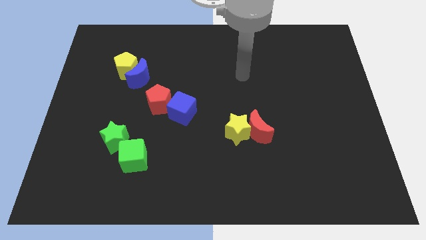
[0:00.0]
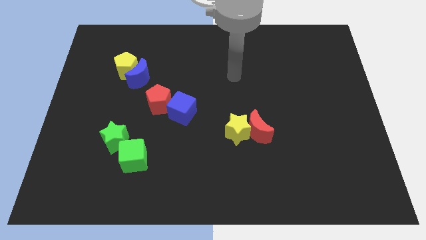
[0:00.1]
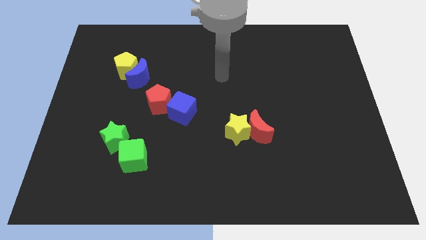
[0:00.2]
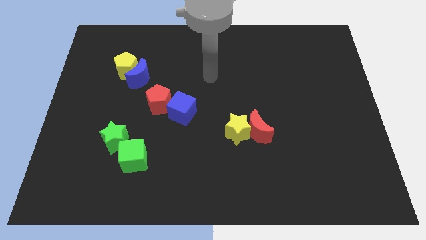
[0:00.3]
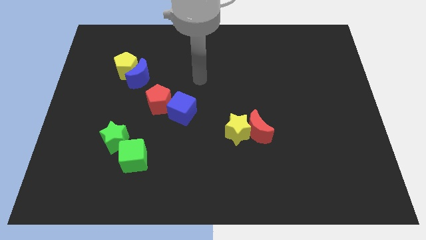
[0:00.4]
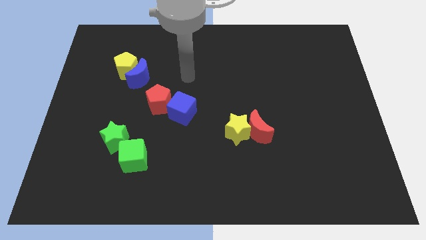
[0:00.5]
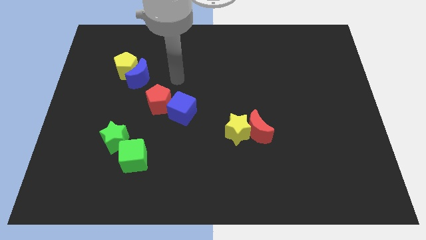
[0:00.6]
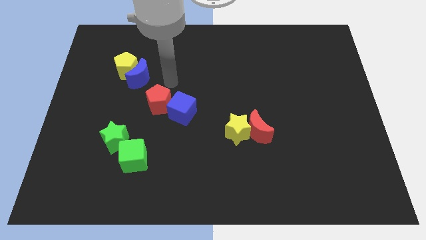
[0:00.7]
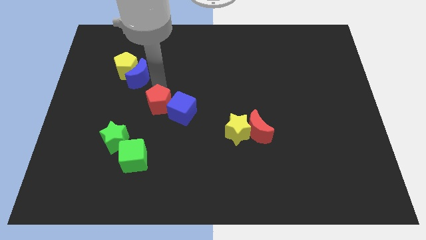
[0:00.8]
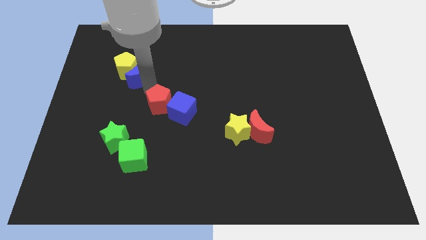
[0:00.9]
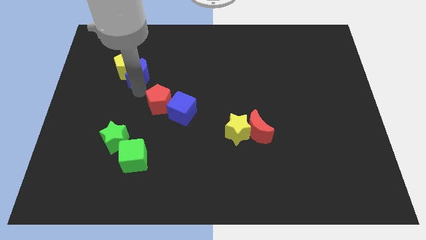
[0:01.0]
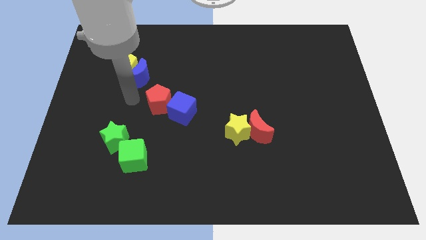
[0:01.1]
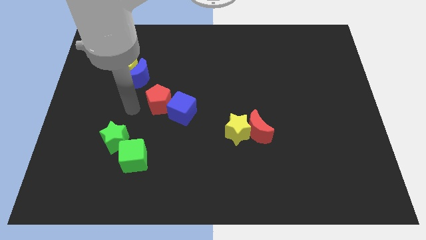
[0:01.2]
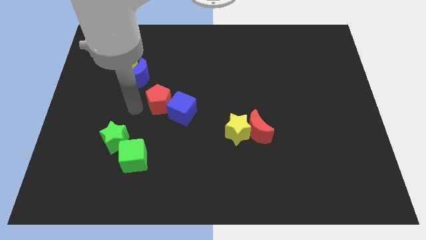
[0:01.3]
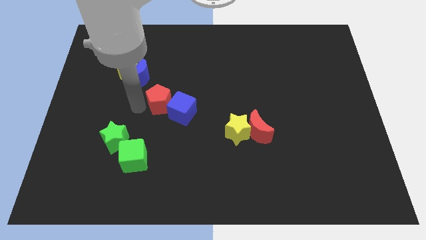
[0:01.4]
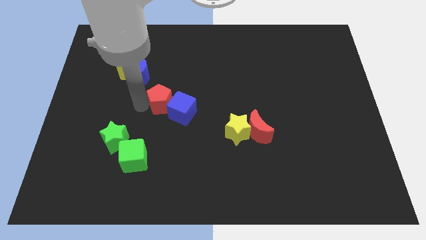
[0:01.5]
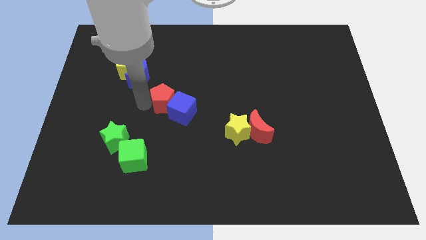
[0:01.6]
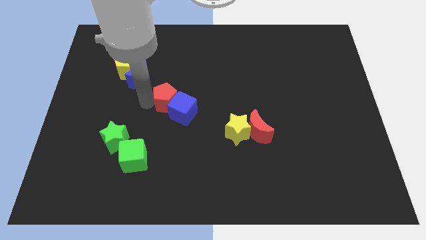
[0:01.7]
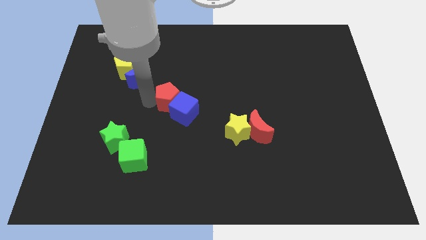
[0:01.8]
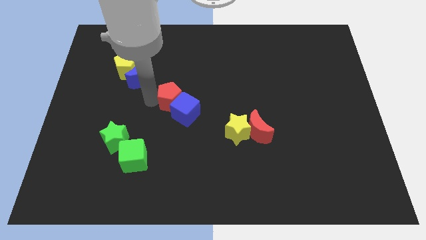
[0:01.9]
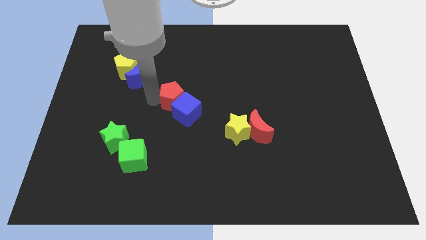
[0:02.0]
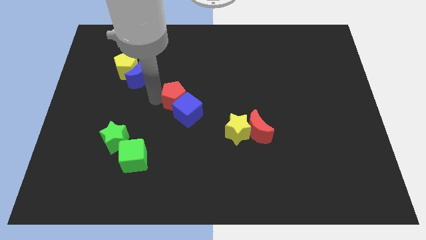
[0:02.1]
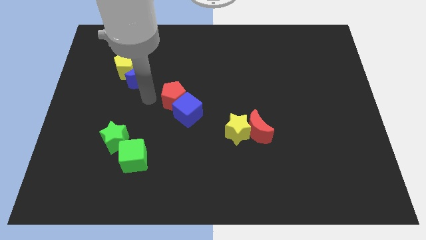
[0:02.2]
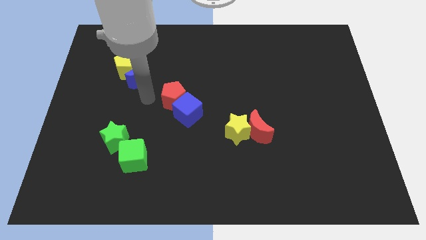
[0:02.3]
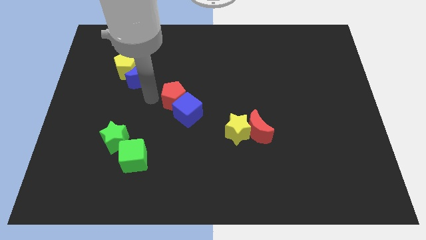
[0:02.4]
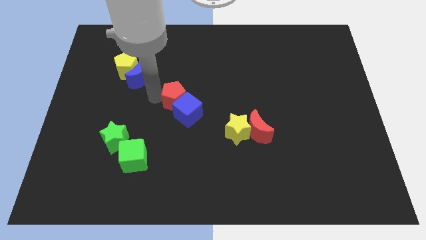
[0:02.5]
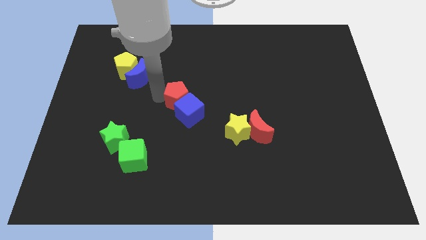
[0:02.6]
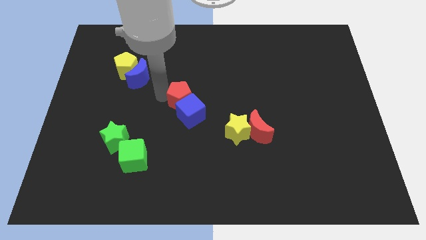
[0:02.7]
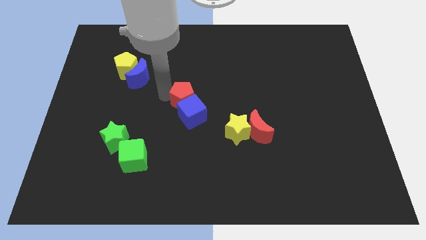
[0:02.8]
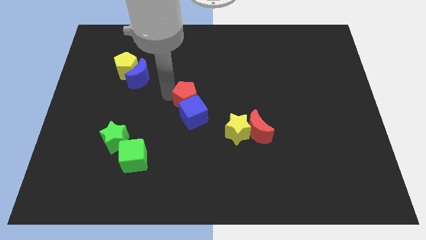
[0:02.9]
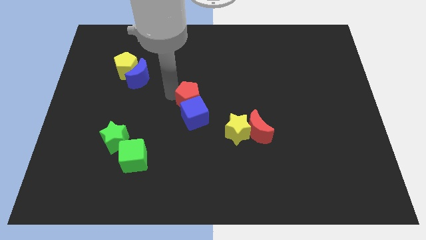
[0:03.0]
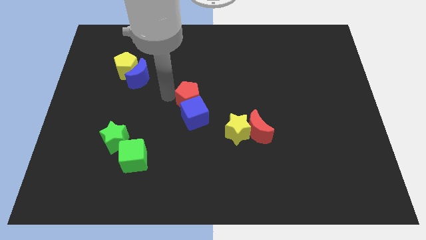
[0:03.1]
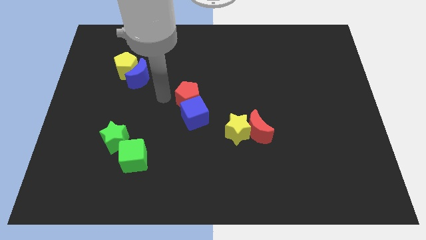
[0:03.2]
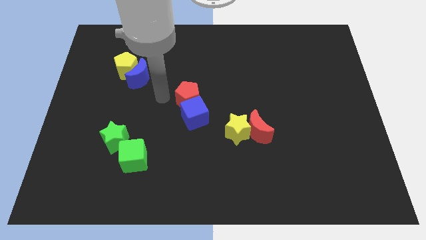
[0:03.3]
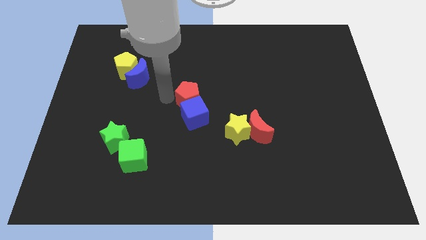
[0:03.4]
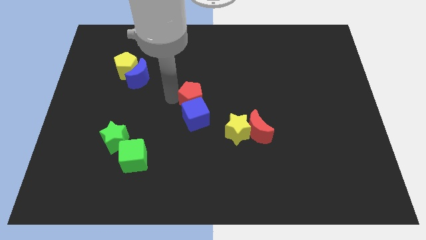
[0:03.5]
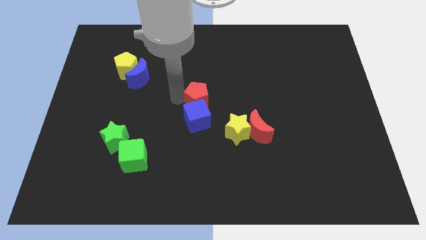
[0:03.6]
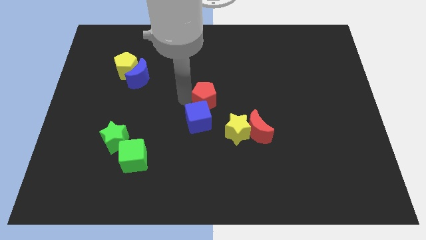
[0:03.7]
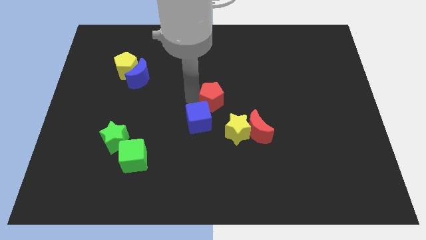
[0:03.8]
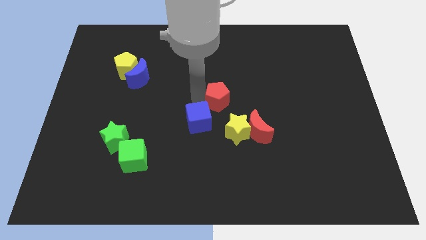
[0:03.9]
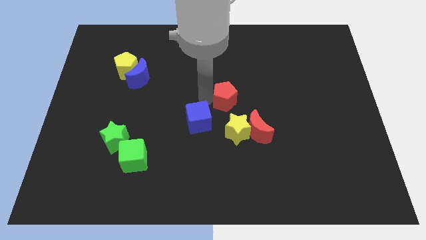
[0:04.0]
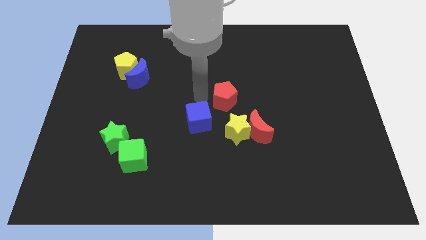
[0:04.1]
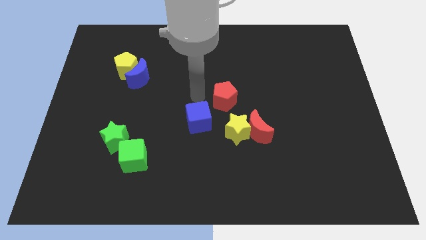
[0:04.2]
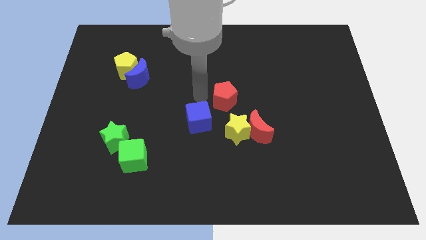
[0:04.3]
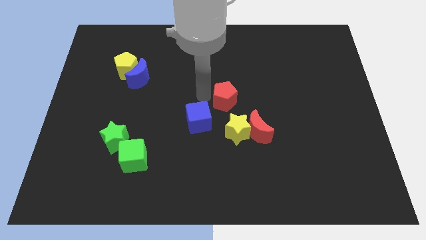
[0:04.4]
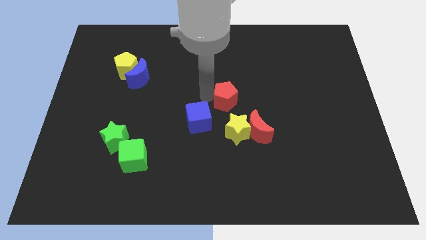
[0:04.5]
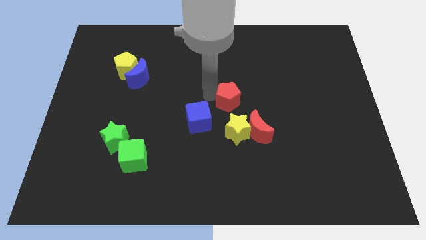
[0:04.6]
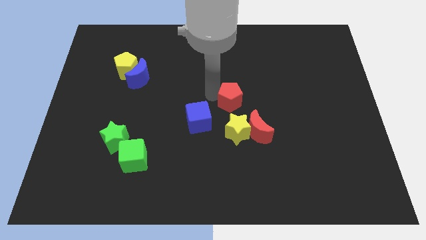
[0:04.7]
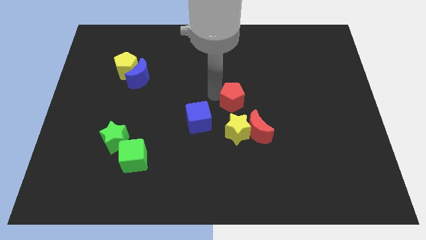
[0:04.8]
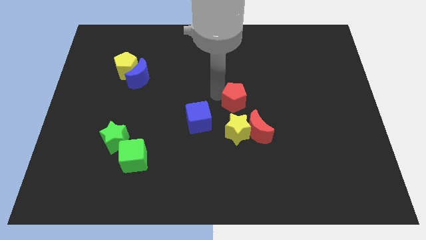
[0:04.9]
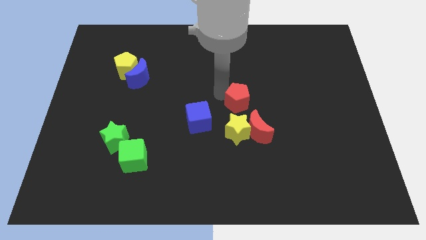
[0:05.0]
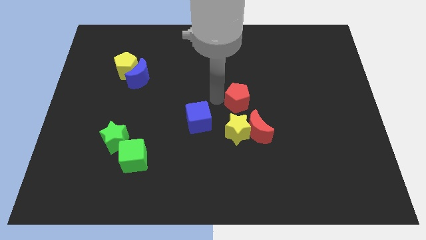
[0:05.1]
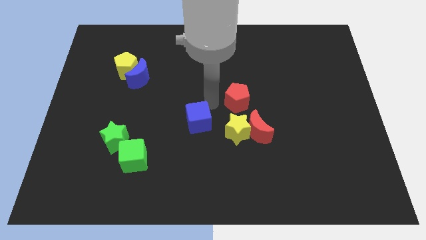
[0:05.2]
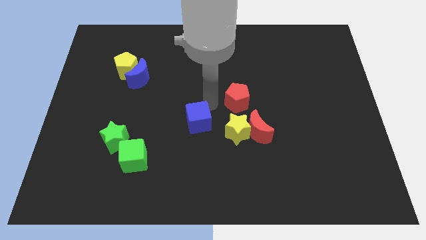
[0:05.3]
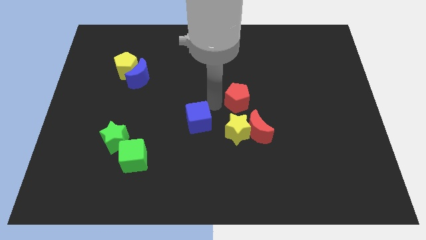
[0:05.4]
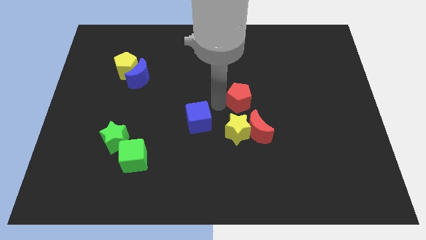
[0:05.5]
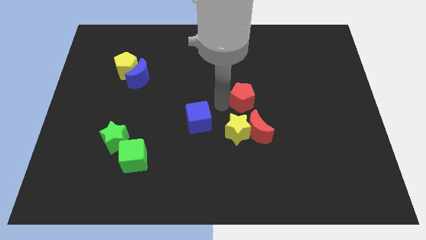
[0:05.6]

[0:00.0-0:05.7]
slide the red pentagon right

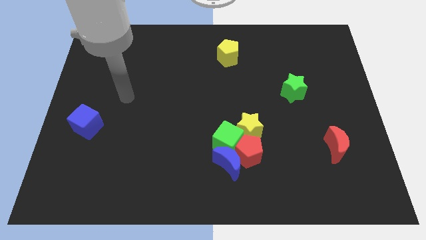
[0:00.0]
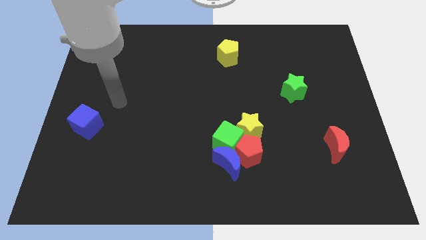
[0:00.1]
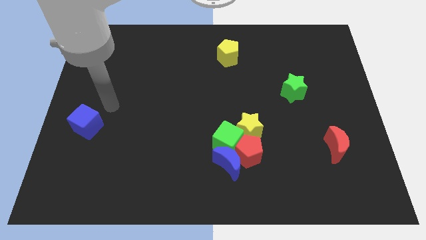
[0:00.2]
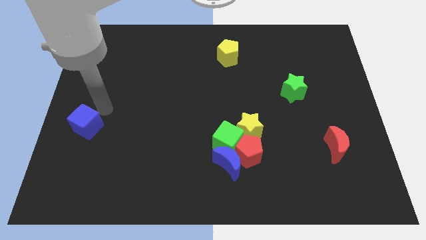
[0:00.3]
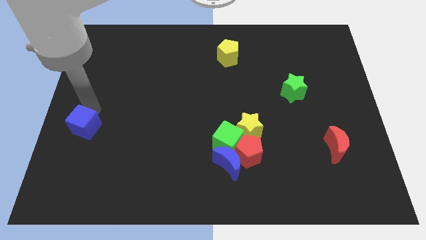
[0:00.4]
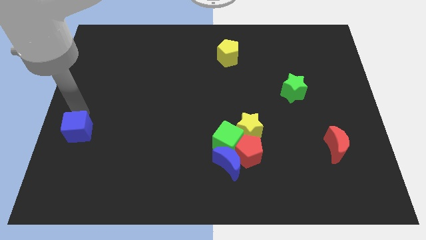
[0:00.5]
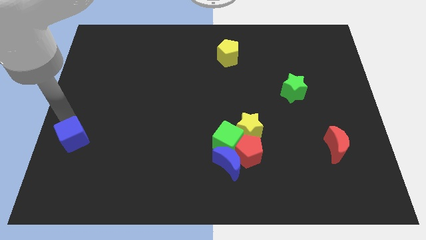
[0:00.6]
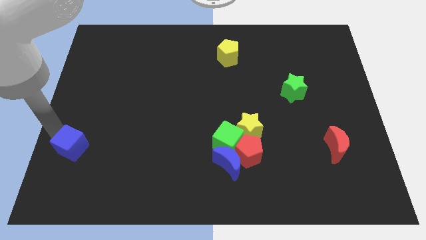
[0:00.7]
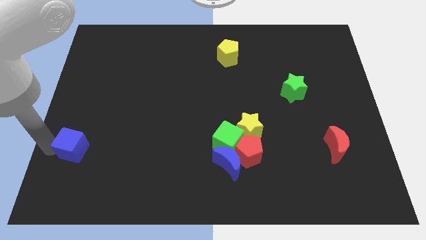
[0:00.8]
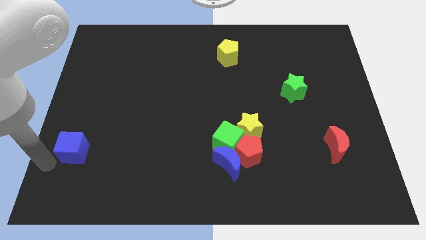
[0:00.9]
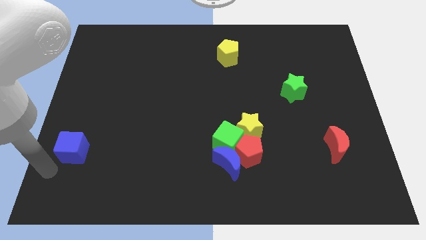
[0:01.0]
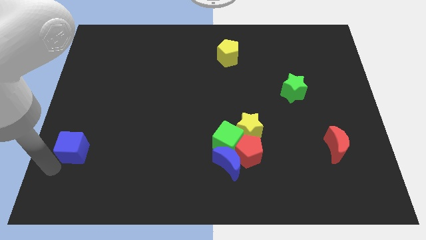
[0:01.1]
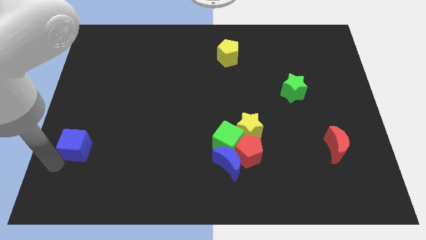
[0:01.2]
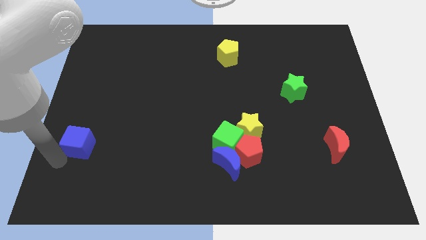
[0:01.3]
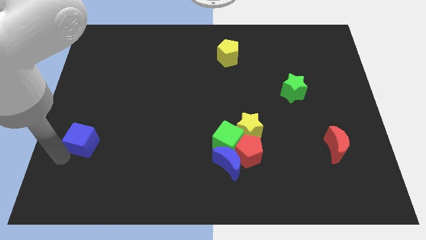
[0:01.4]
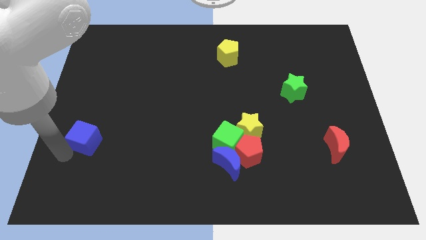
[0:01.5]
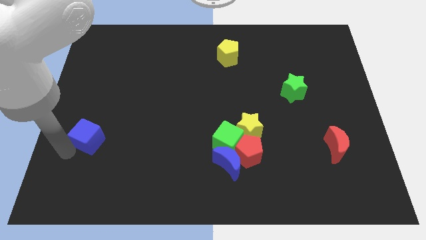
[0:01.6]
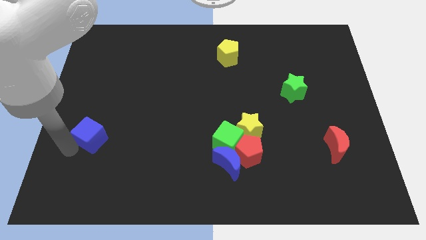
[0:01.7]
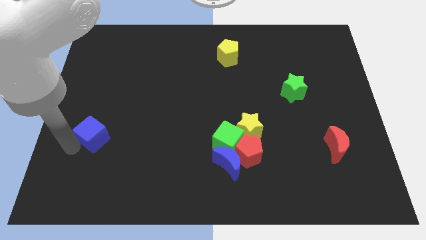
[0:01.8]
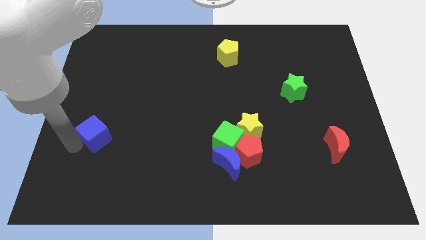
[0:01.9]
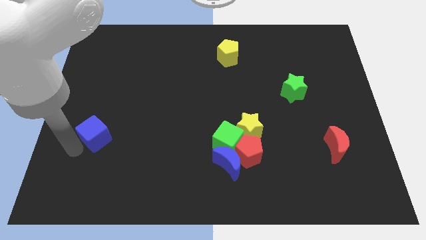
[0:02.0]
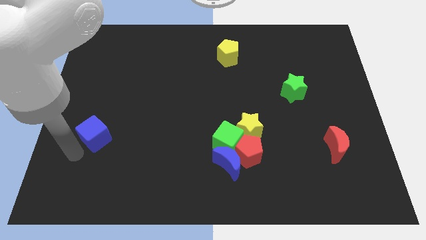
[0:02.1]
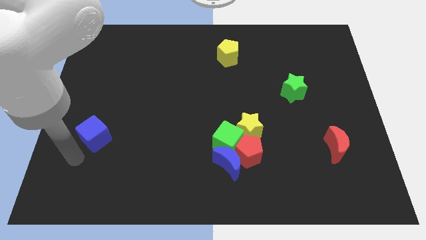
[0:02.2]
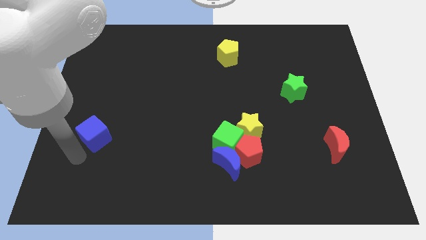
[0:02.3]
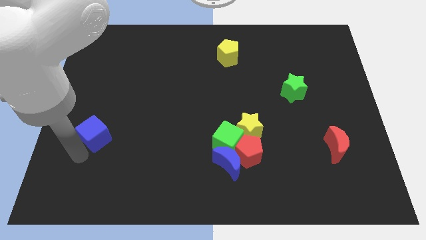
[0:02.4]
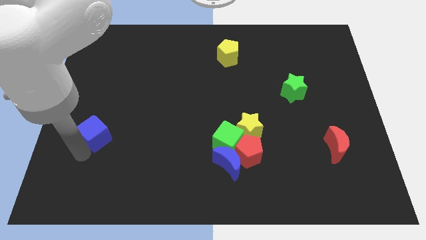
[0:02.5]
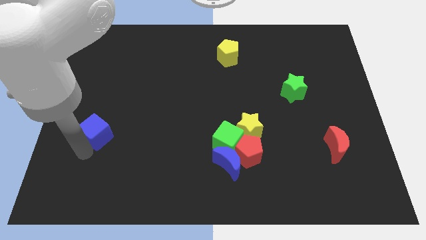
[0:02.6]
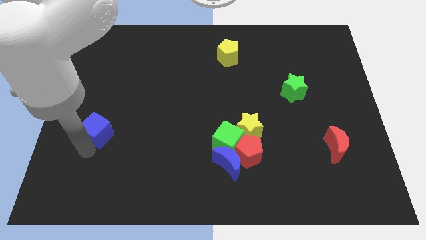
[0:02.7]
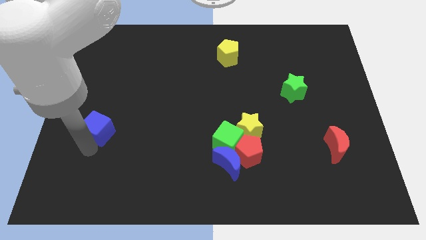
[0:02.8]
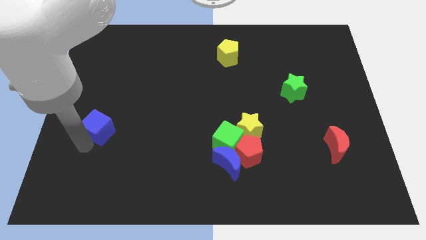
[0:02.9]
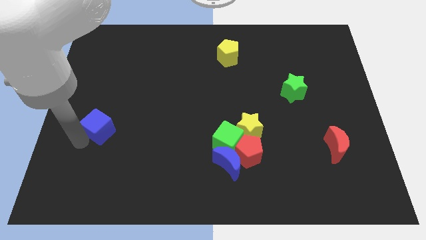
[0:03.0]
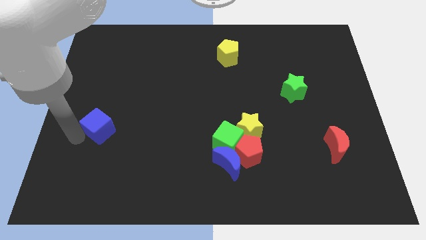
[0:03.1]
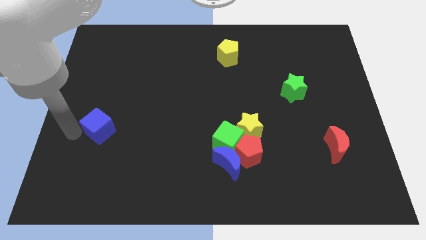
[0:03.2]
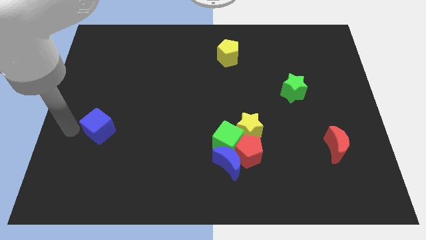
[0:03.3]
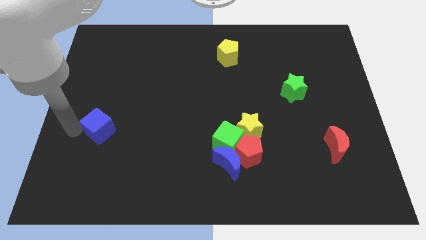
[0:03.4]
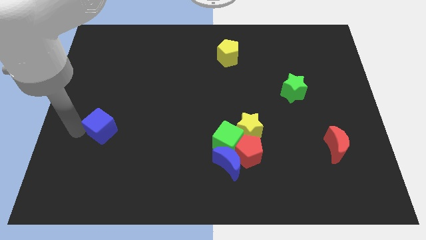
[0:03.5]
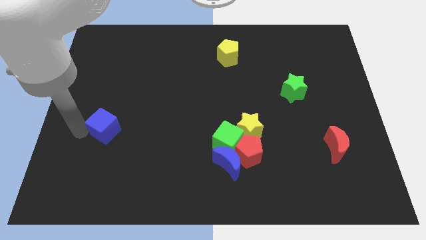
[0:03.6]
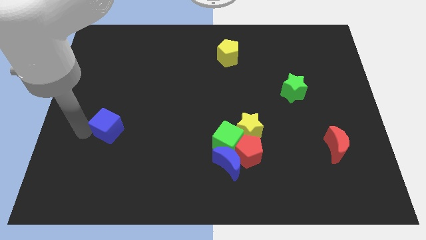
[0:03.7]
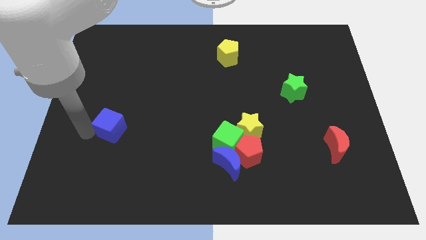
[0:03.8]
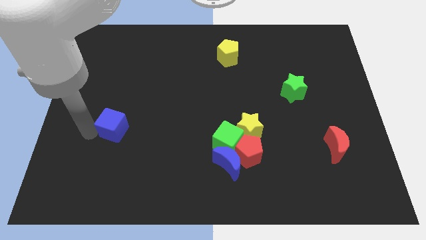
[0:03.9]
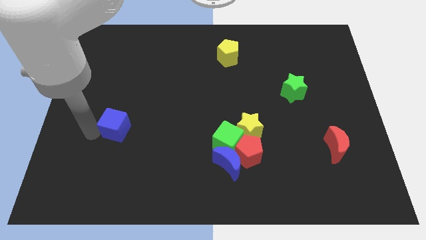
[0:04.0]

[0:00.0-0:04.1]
slightly slide the blue cube to the right
